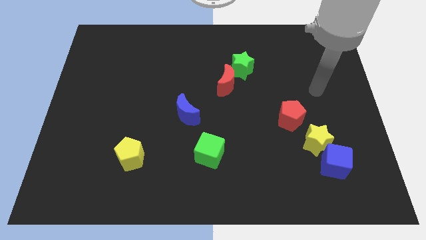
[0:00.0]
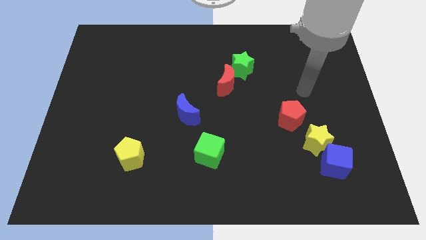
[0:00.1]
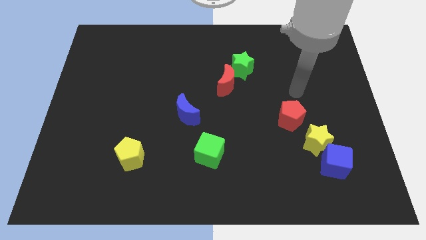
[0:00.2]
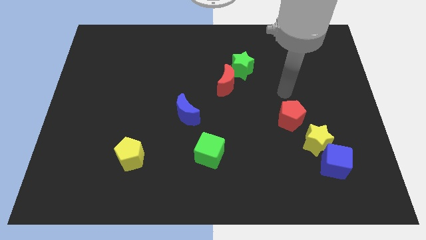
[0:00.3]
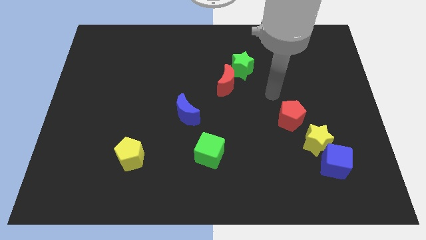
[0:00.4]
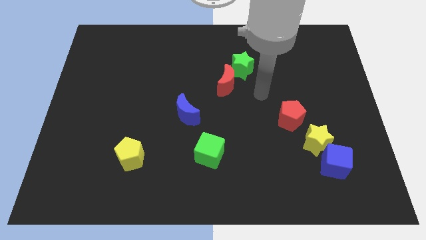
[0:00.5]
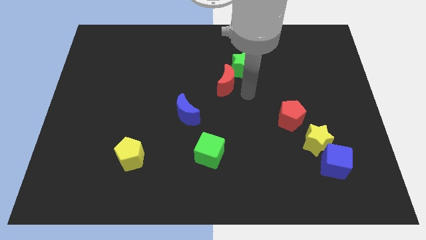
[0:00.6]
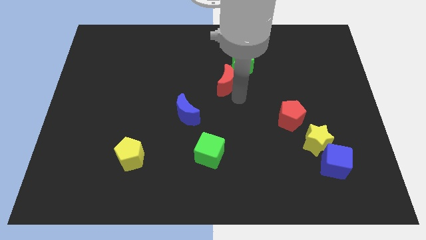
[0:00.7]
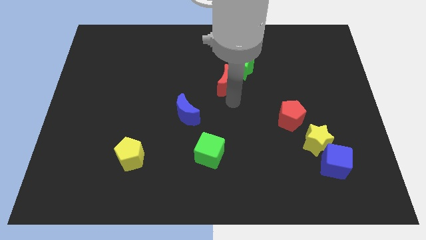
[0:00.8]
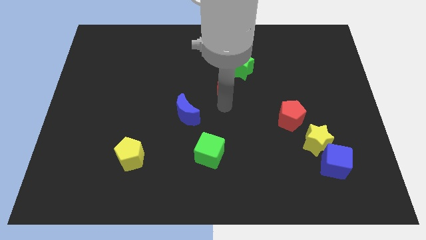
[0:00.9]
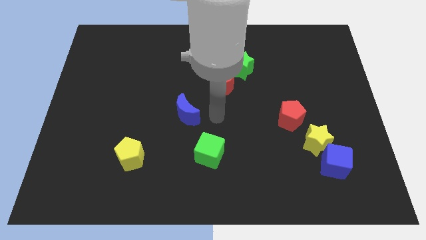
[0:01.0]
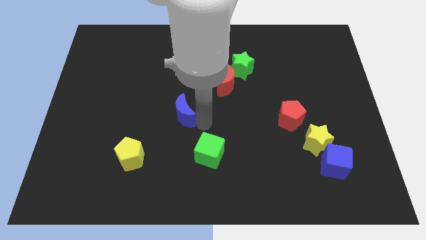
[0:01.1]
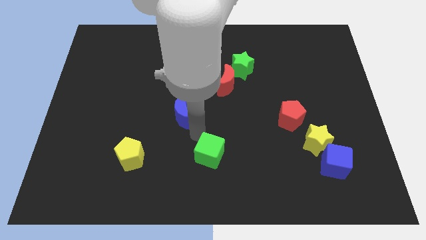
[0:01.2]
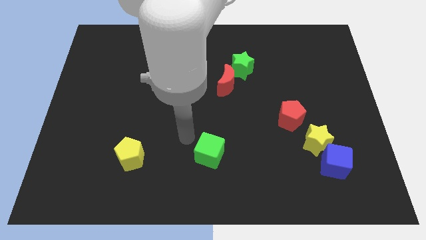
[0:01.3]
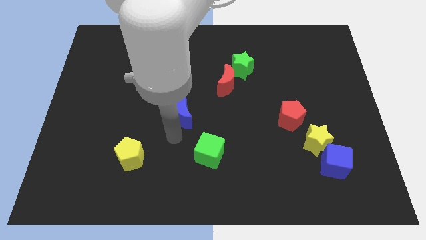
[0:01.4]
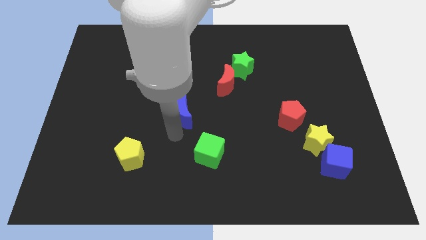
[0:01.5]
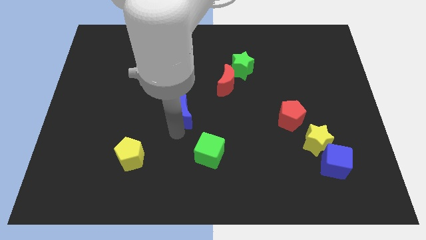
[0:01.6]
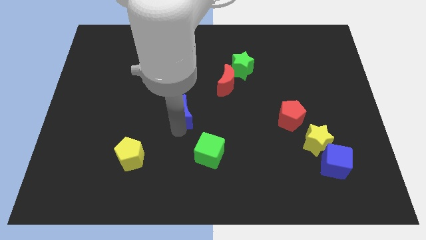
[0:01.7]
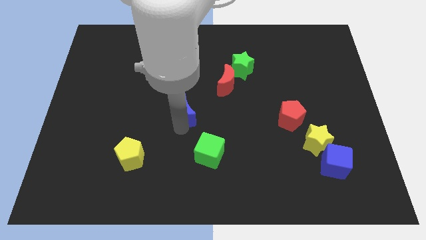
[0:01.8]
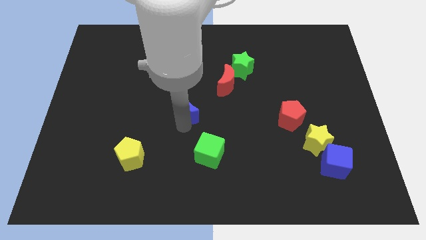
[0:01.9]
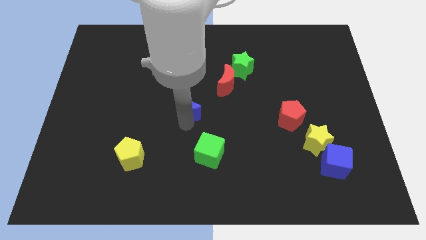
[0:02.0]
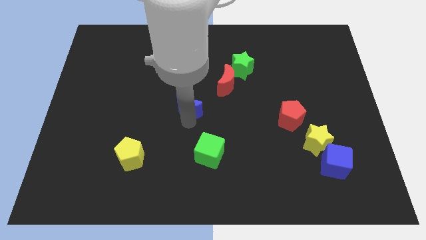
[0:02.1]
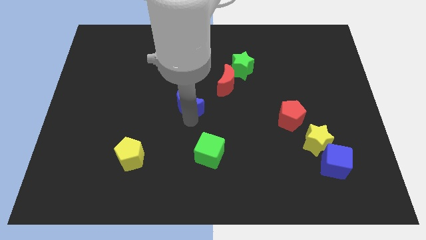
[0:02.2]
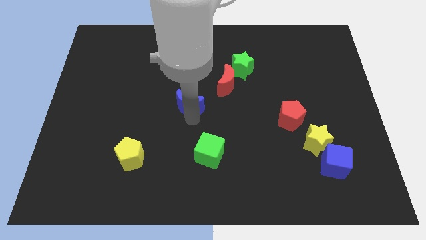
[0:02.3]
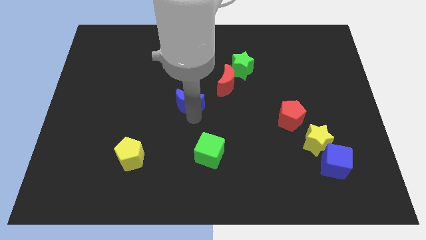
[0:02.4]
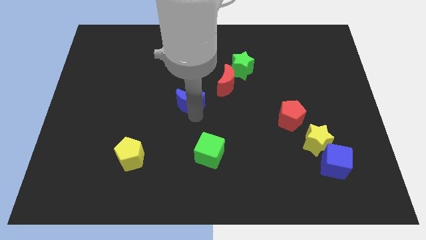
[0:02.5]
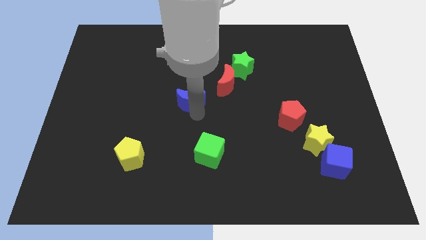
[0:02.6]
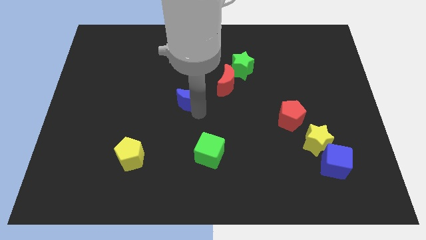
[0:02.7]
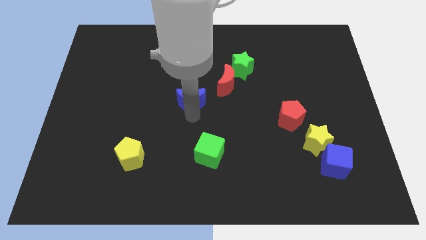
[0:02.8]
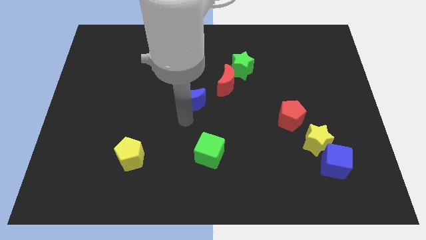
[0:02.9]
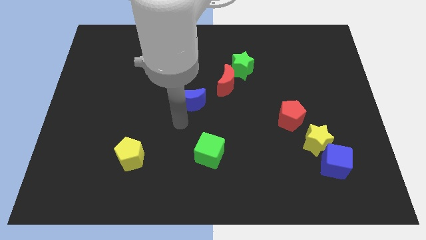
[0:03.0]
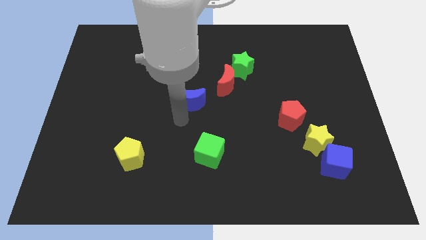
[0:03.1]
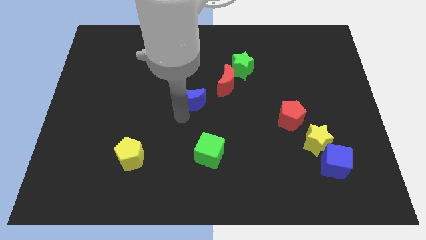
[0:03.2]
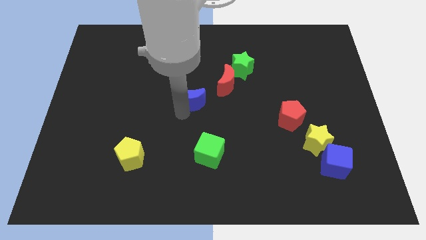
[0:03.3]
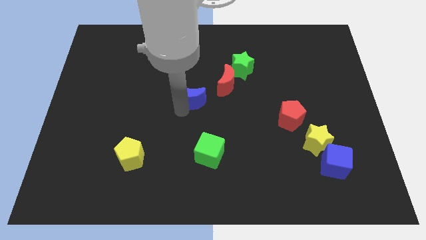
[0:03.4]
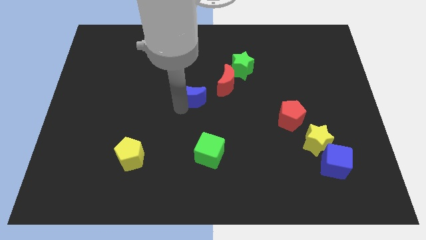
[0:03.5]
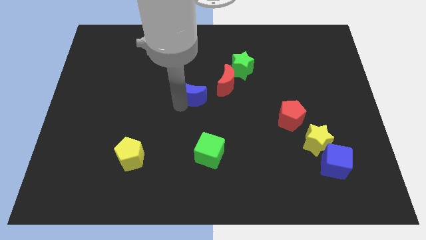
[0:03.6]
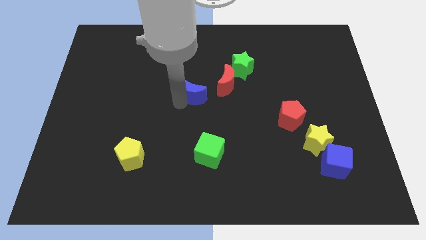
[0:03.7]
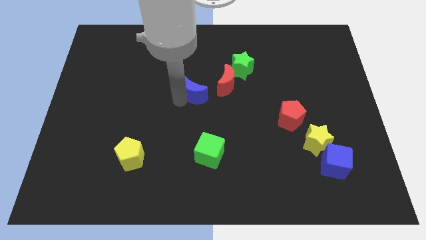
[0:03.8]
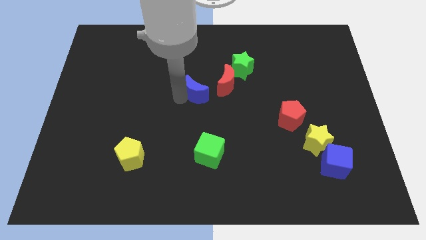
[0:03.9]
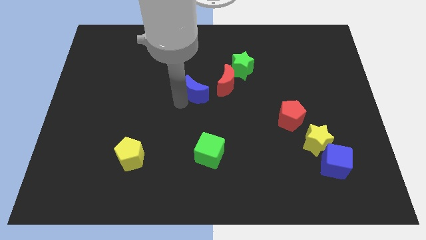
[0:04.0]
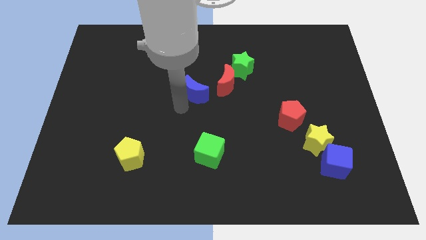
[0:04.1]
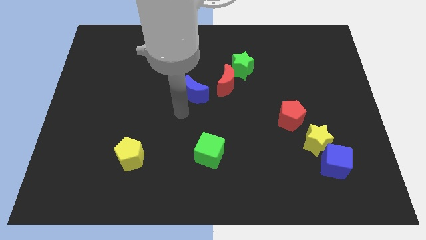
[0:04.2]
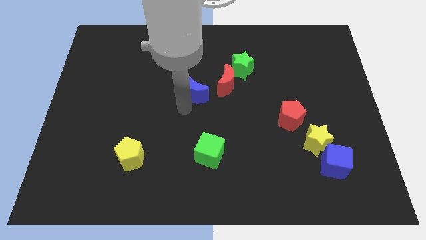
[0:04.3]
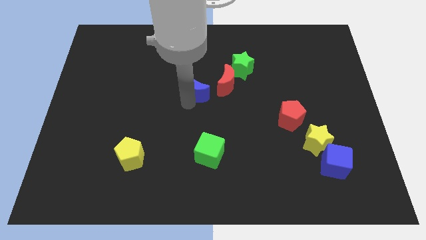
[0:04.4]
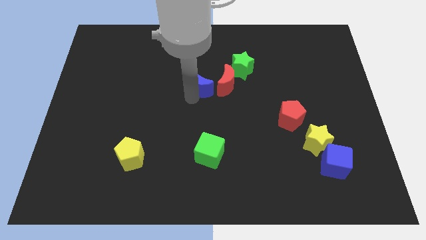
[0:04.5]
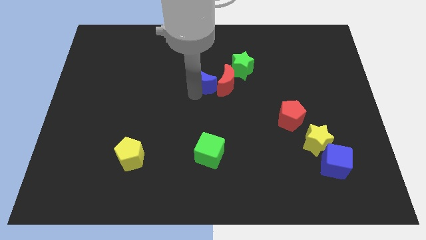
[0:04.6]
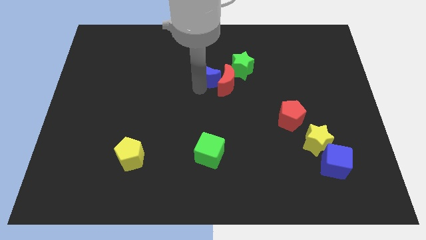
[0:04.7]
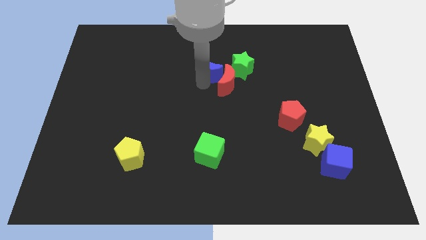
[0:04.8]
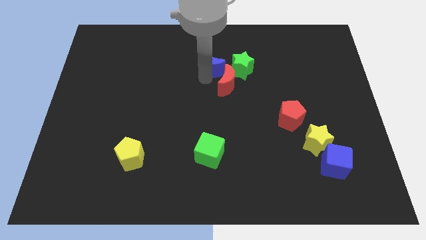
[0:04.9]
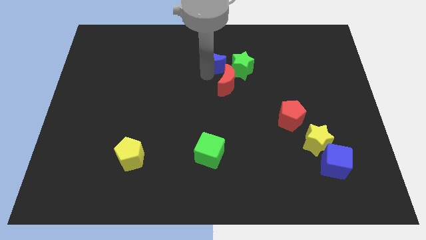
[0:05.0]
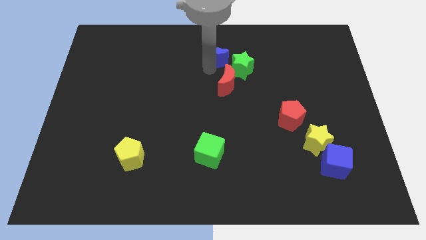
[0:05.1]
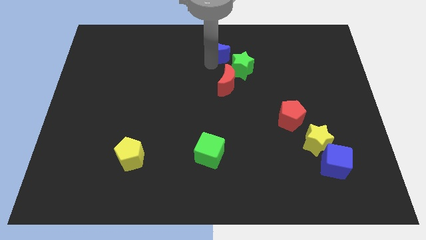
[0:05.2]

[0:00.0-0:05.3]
push the blue moon to the top side

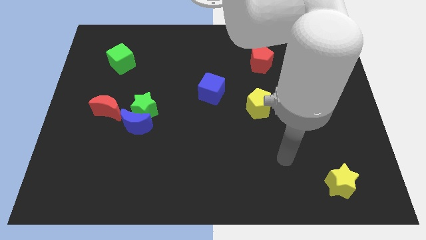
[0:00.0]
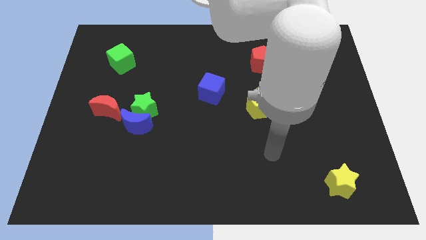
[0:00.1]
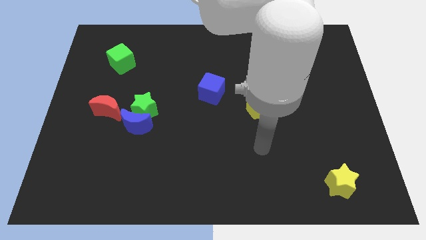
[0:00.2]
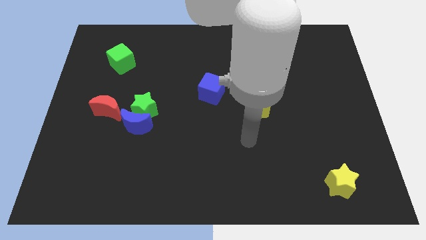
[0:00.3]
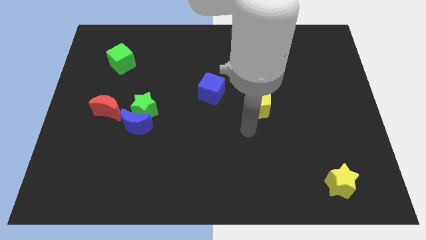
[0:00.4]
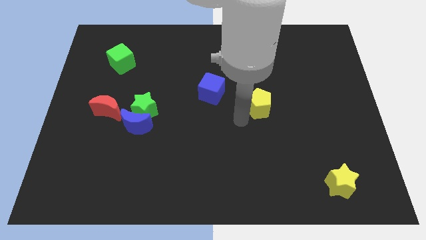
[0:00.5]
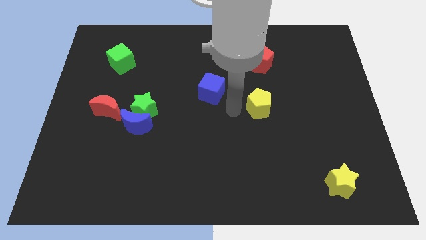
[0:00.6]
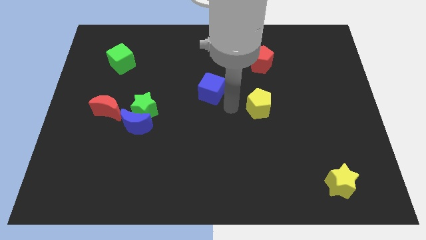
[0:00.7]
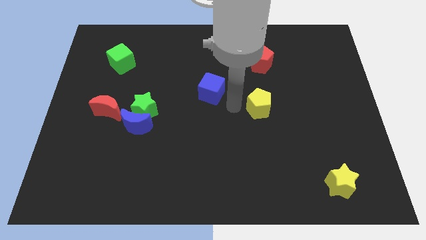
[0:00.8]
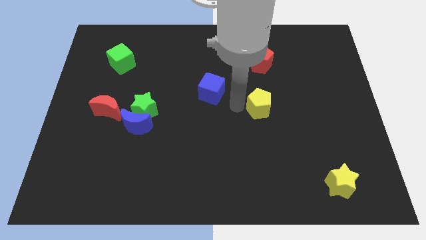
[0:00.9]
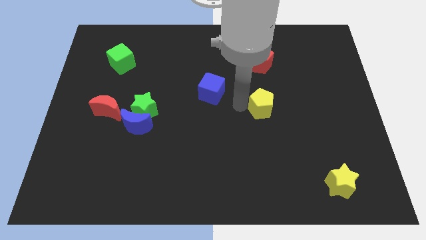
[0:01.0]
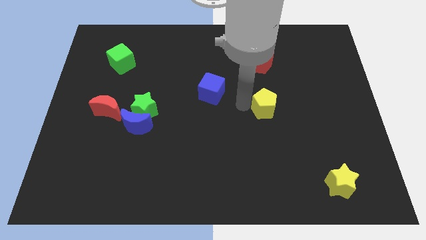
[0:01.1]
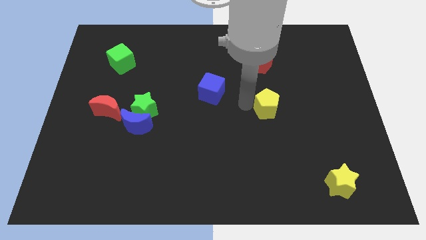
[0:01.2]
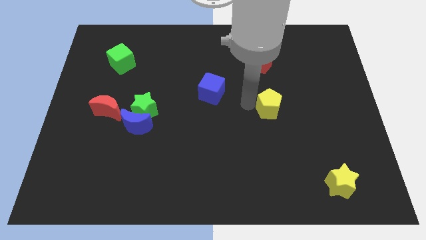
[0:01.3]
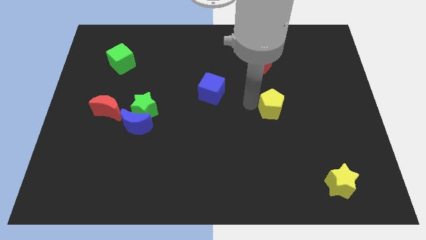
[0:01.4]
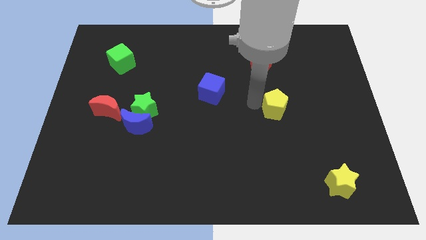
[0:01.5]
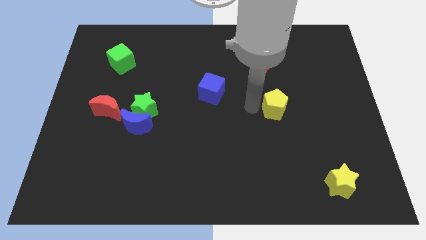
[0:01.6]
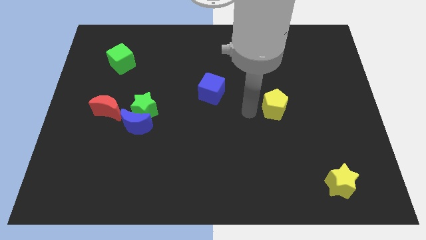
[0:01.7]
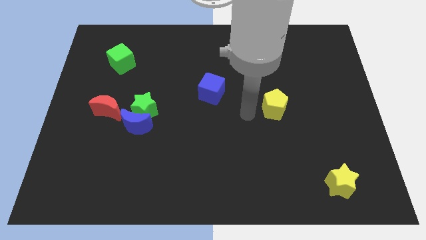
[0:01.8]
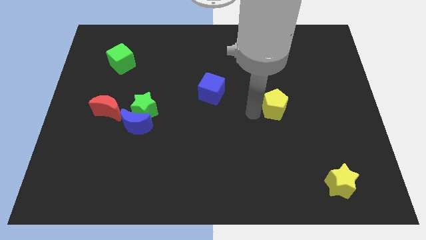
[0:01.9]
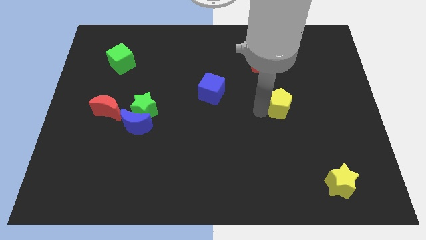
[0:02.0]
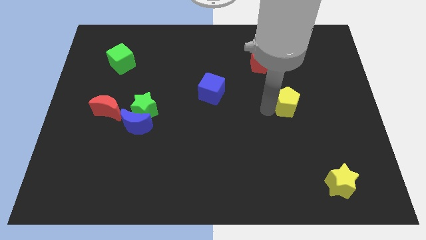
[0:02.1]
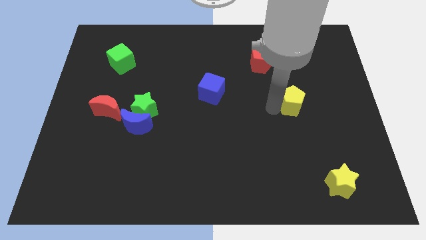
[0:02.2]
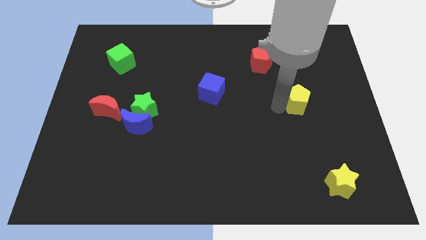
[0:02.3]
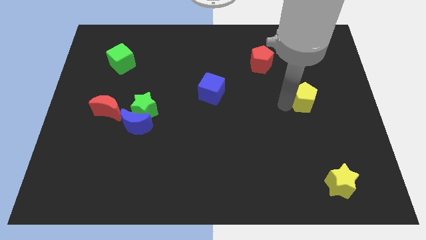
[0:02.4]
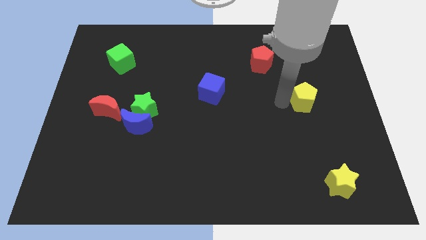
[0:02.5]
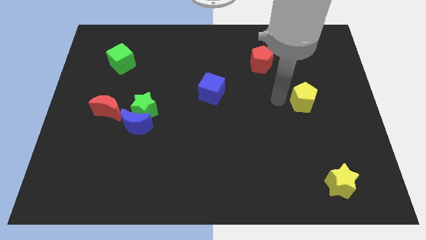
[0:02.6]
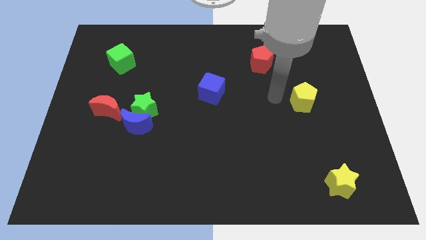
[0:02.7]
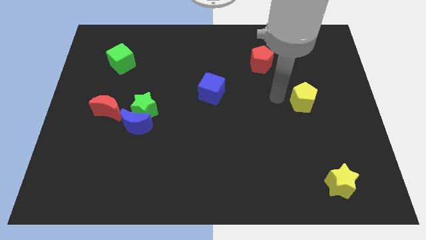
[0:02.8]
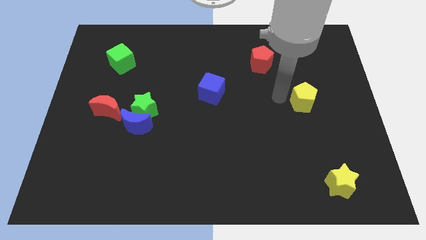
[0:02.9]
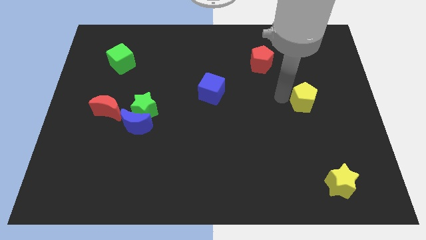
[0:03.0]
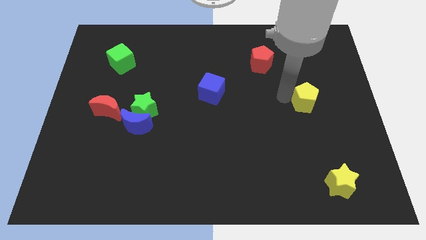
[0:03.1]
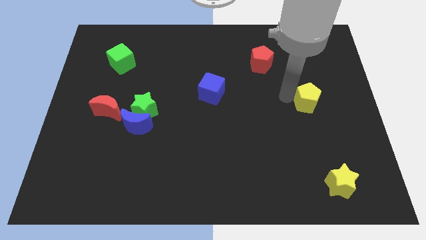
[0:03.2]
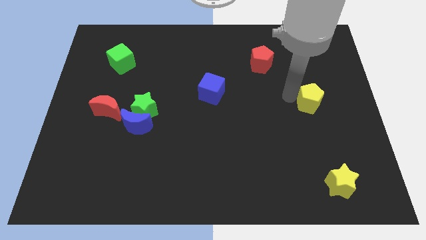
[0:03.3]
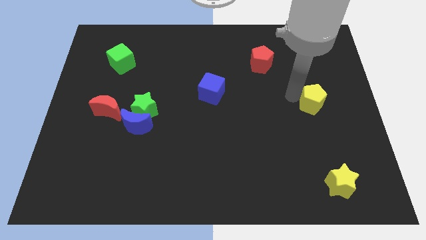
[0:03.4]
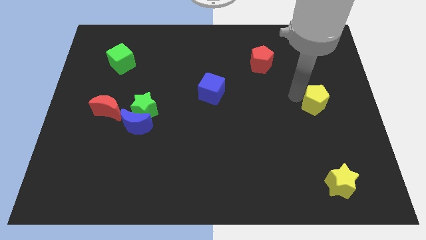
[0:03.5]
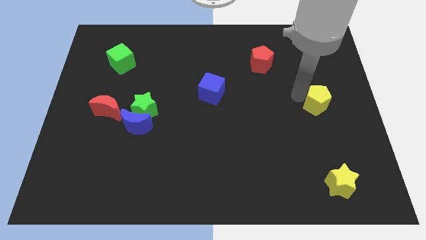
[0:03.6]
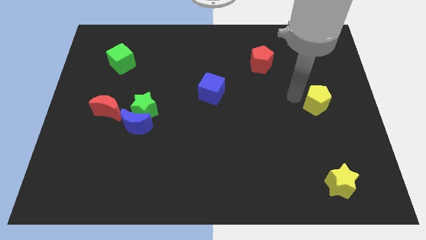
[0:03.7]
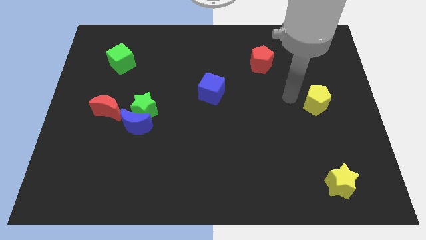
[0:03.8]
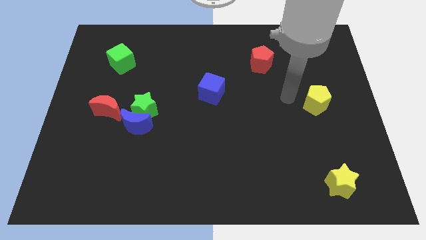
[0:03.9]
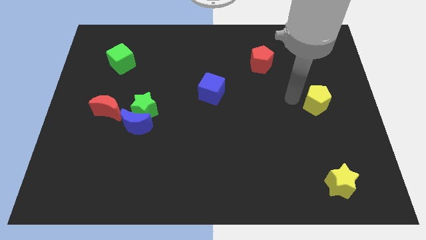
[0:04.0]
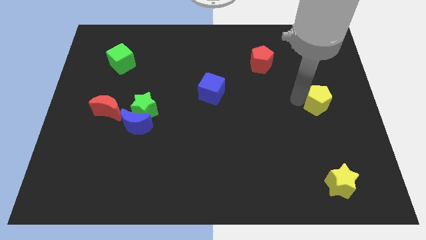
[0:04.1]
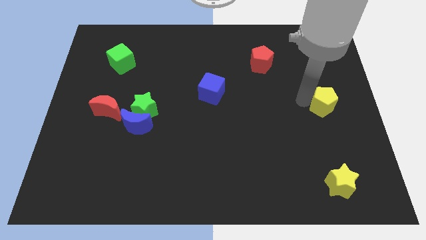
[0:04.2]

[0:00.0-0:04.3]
slide the yellow pentagon to the right side
